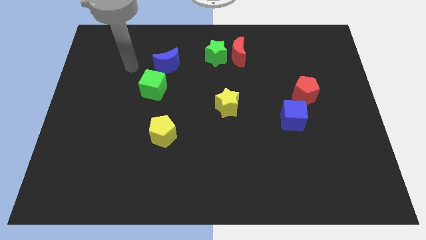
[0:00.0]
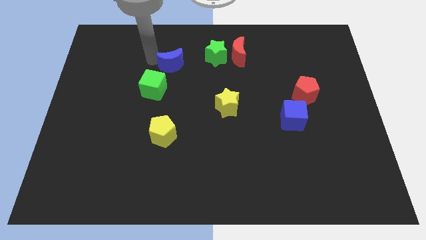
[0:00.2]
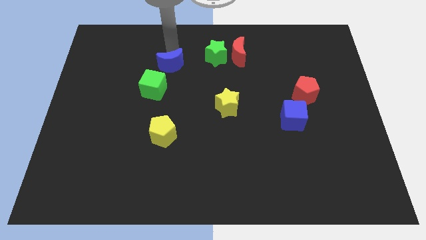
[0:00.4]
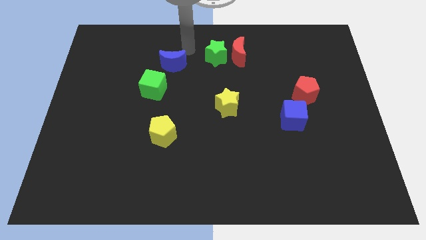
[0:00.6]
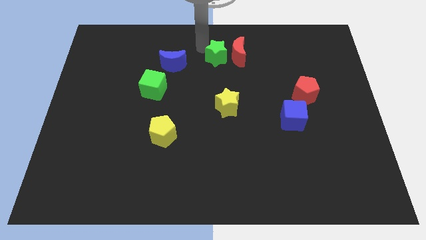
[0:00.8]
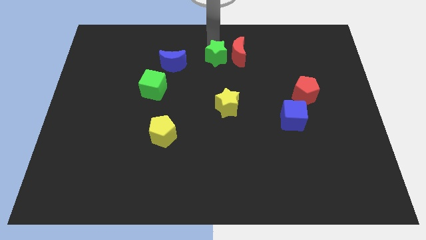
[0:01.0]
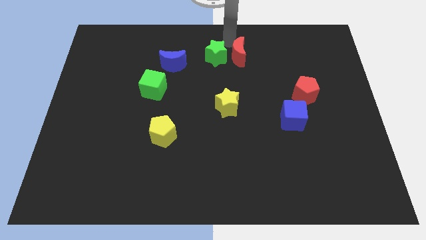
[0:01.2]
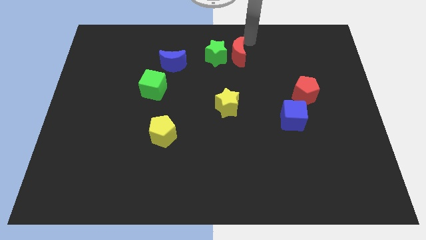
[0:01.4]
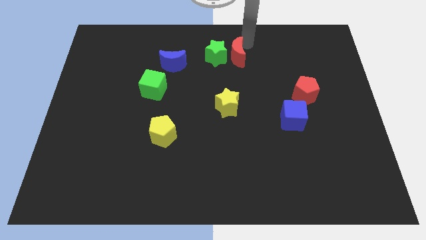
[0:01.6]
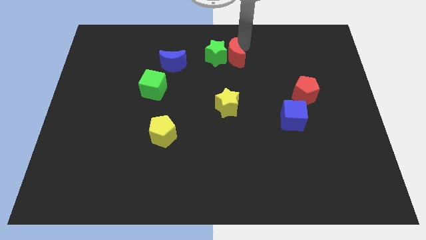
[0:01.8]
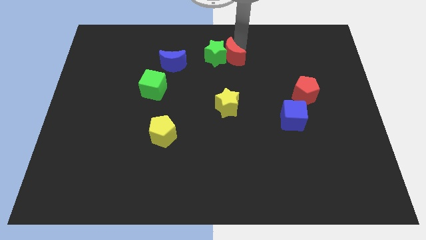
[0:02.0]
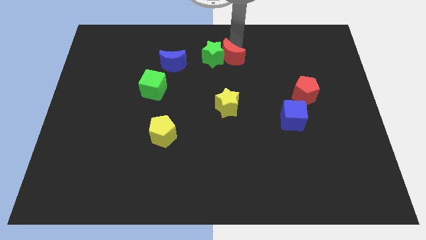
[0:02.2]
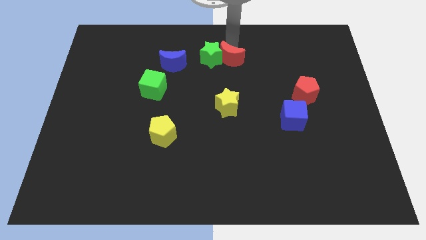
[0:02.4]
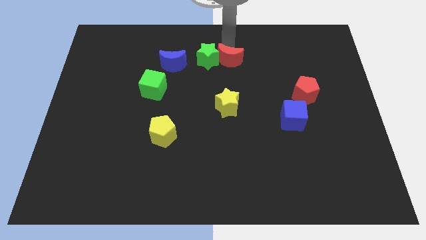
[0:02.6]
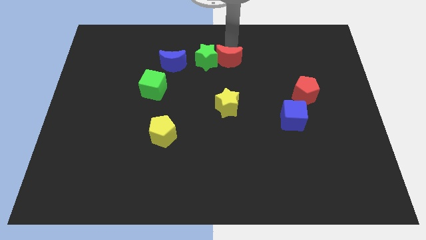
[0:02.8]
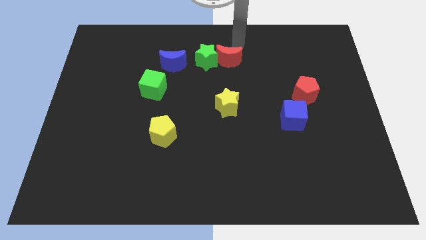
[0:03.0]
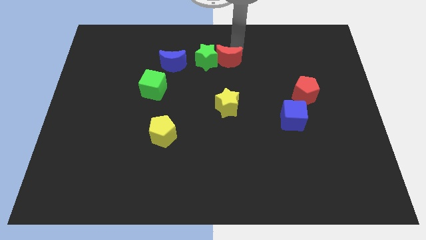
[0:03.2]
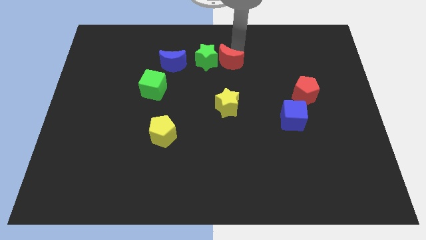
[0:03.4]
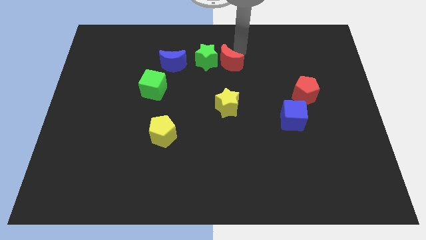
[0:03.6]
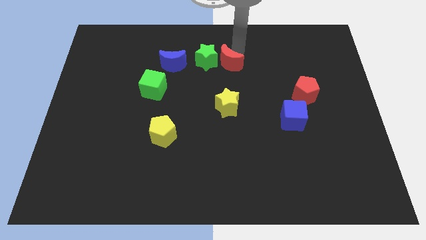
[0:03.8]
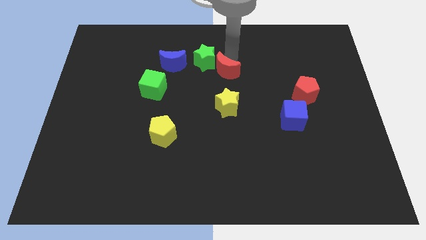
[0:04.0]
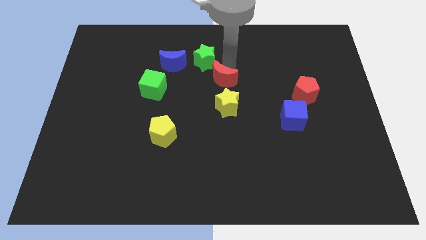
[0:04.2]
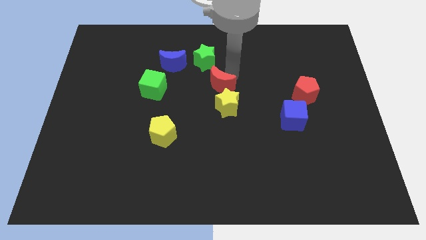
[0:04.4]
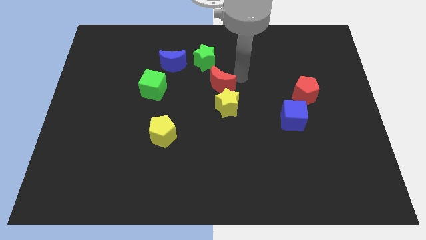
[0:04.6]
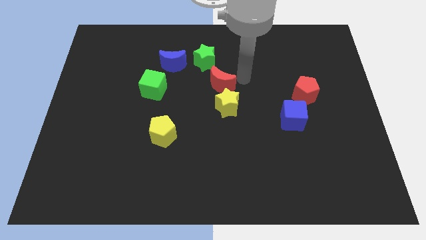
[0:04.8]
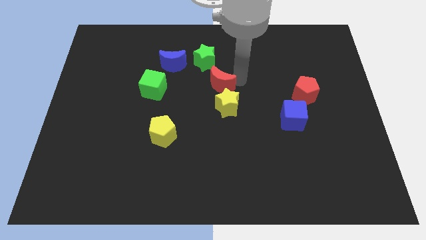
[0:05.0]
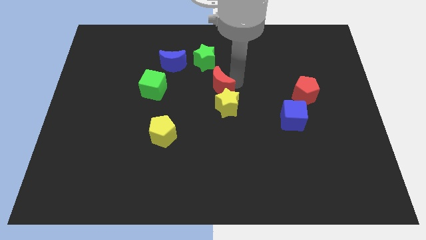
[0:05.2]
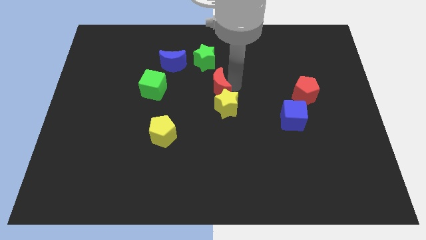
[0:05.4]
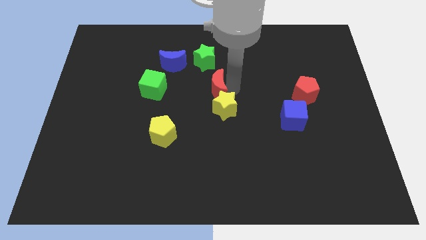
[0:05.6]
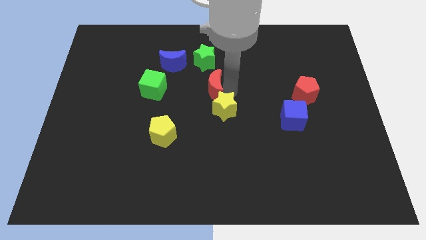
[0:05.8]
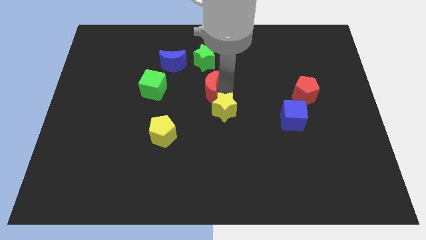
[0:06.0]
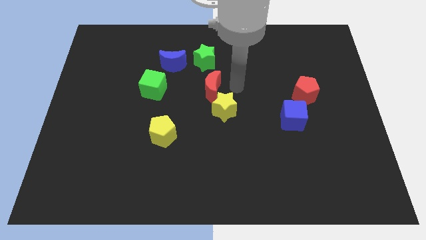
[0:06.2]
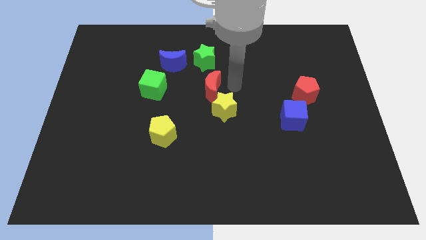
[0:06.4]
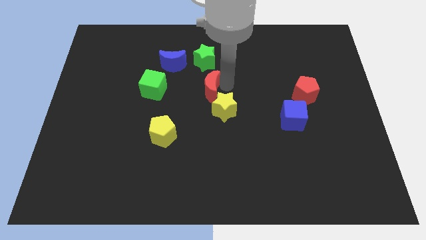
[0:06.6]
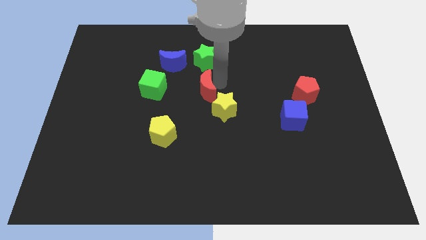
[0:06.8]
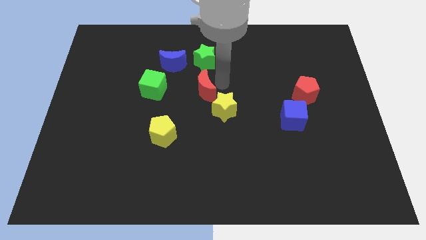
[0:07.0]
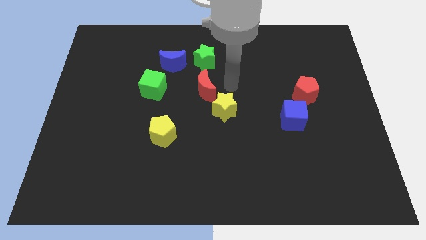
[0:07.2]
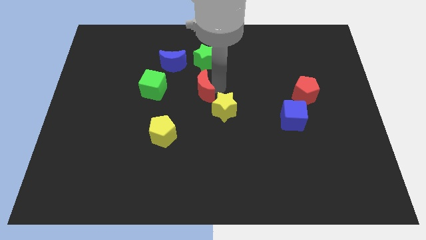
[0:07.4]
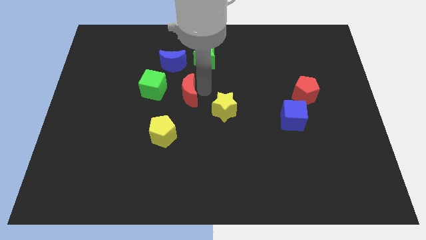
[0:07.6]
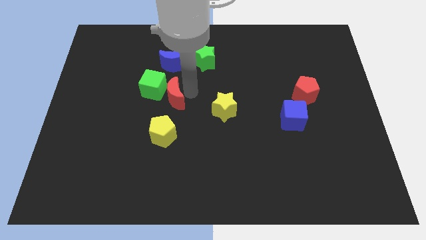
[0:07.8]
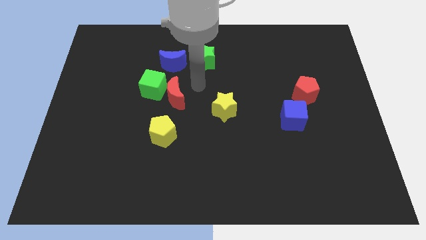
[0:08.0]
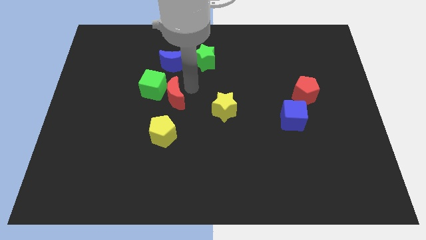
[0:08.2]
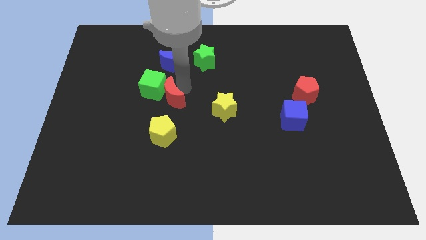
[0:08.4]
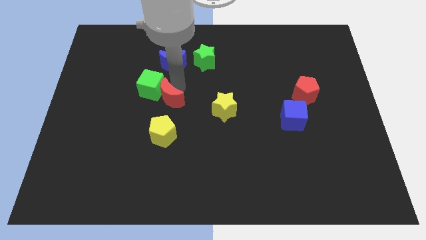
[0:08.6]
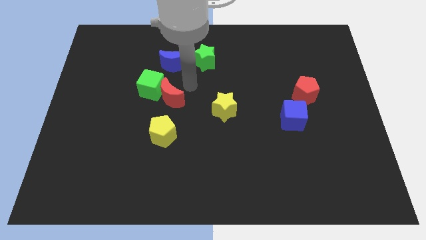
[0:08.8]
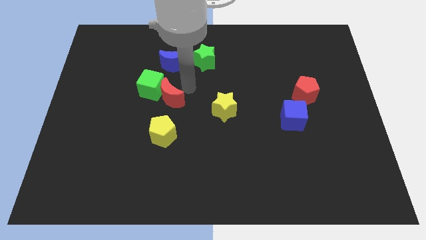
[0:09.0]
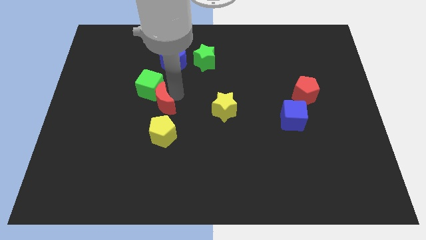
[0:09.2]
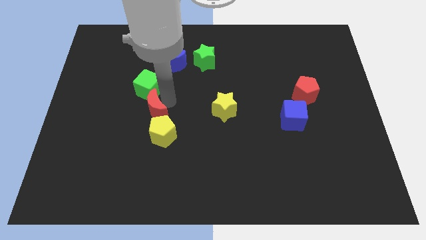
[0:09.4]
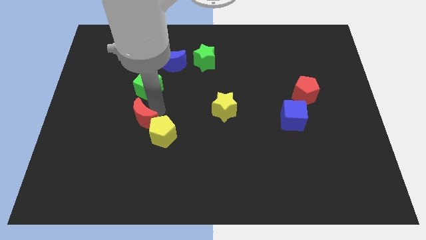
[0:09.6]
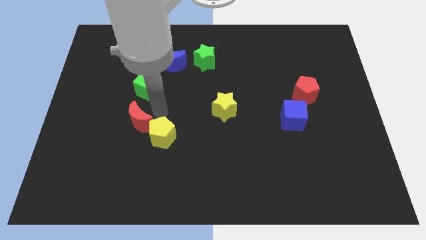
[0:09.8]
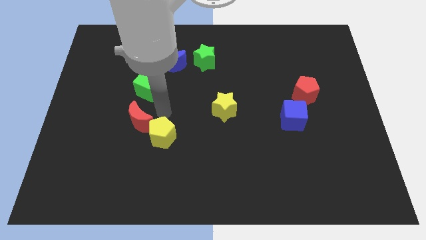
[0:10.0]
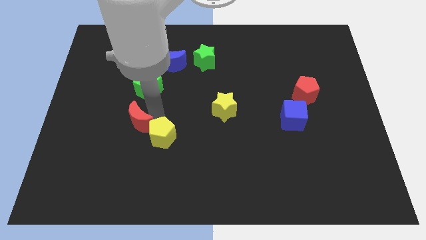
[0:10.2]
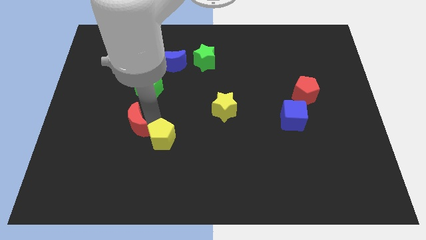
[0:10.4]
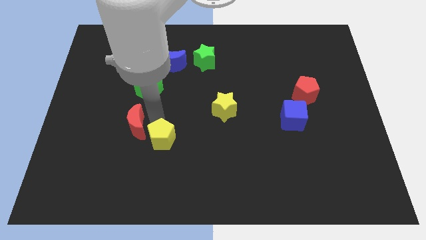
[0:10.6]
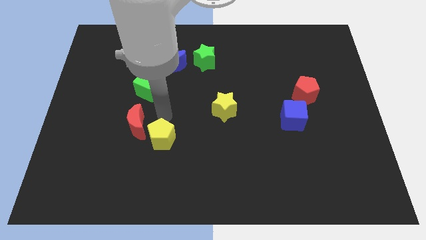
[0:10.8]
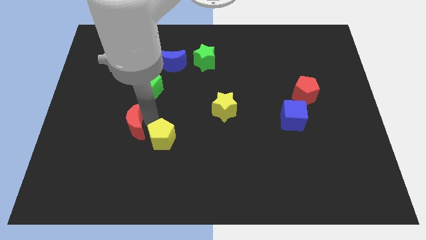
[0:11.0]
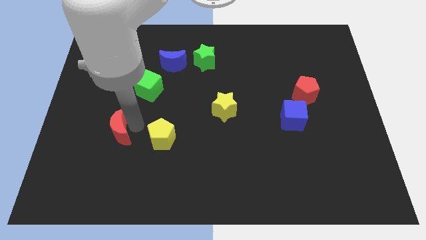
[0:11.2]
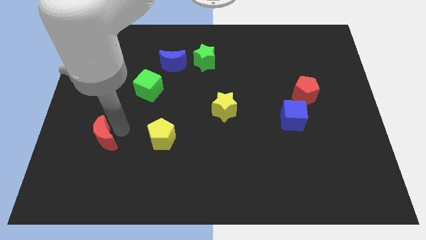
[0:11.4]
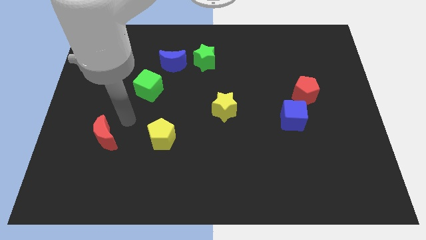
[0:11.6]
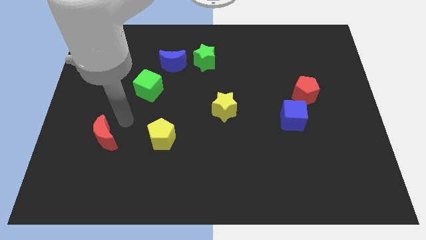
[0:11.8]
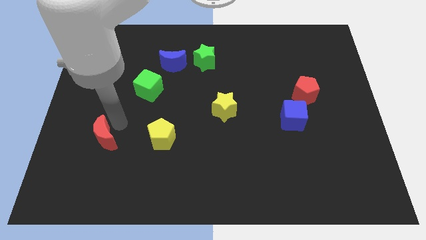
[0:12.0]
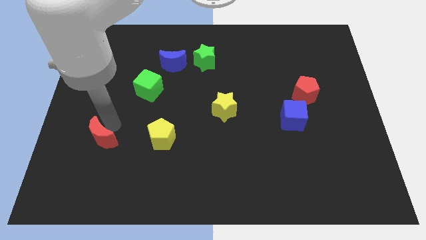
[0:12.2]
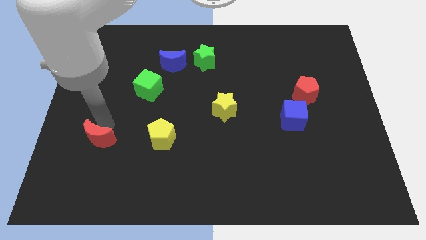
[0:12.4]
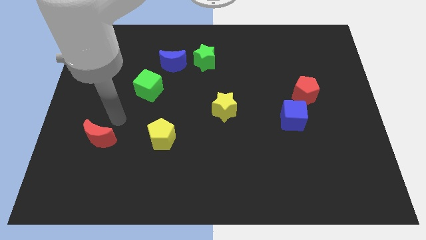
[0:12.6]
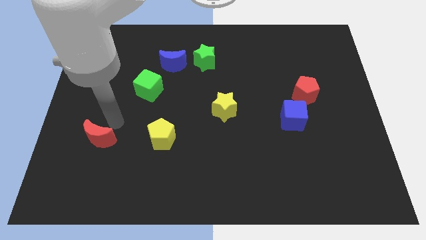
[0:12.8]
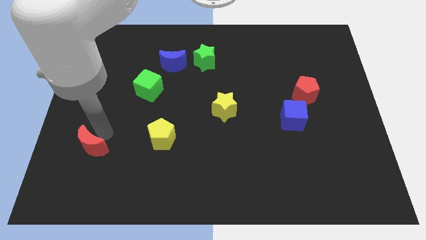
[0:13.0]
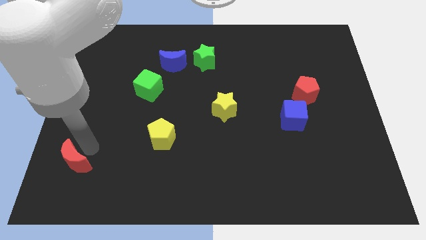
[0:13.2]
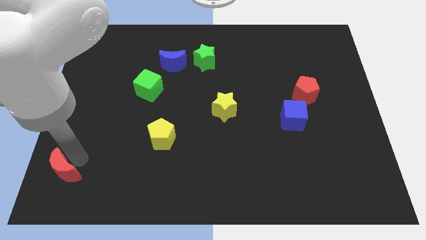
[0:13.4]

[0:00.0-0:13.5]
put the red moon to the bottom left
